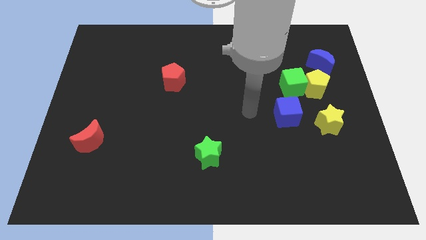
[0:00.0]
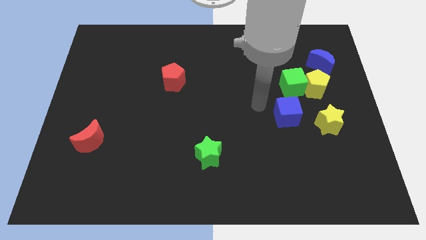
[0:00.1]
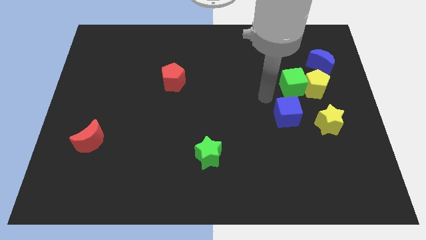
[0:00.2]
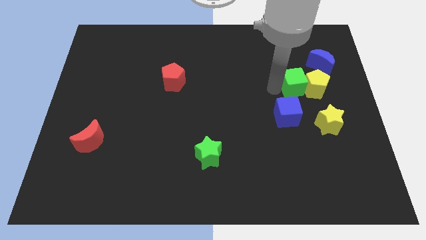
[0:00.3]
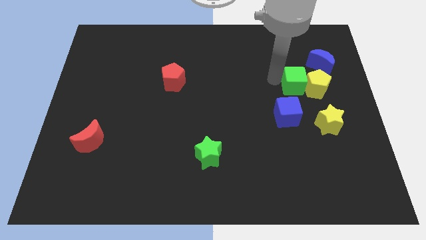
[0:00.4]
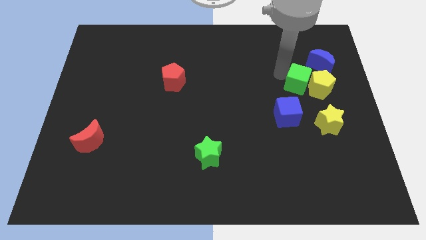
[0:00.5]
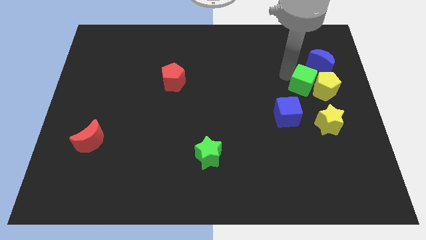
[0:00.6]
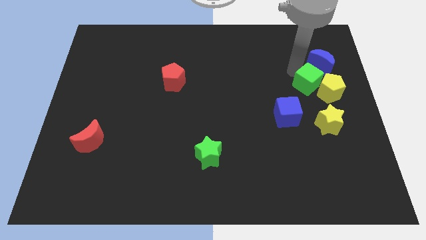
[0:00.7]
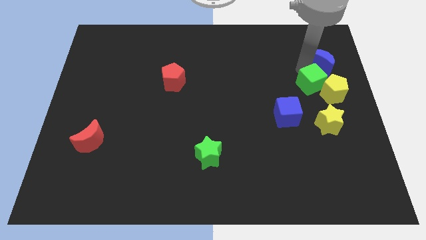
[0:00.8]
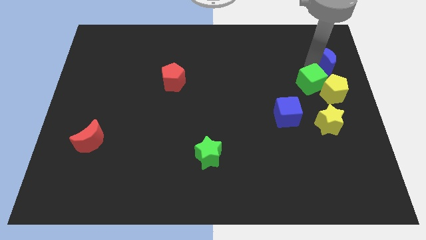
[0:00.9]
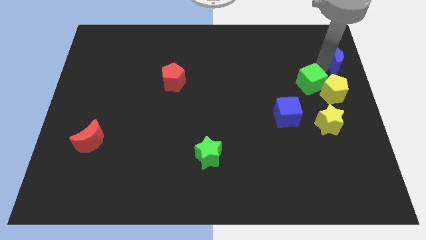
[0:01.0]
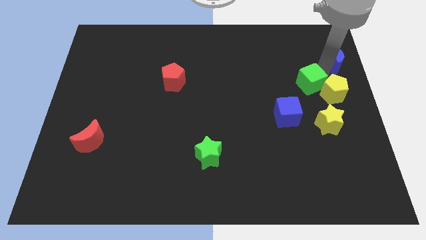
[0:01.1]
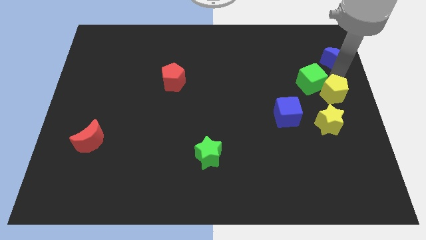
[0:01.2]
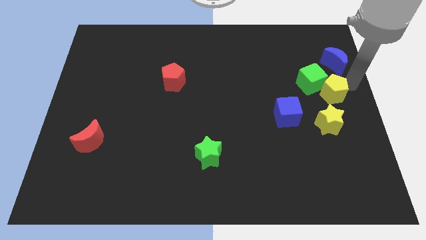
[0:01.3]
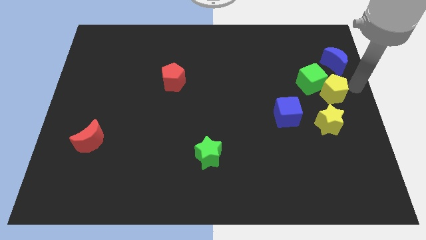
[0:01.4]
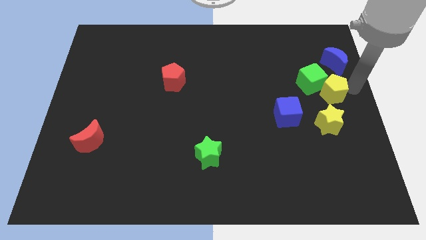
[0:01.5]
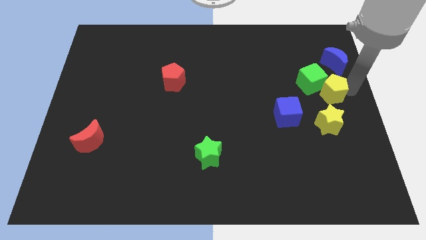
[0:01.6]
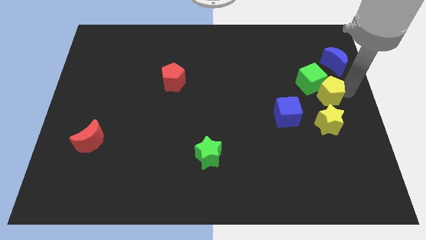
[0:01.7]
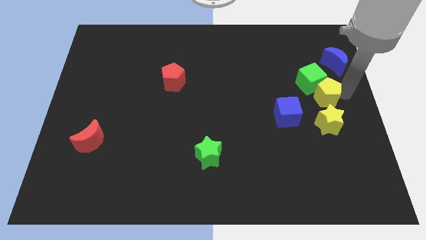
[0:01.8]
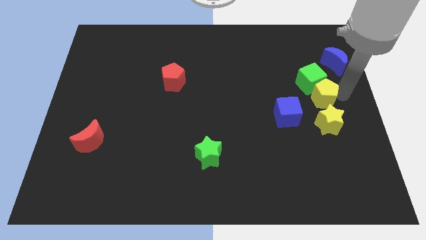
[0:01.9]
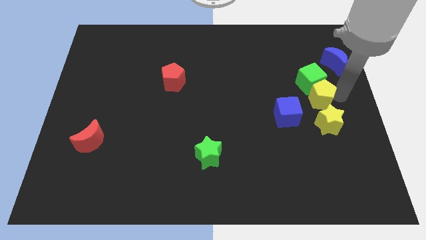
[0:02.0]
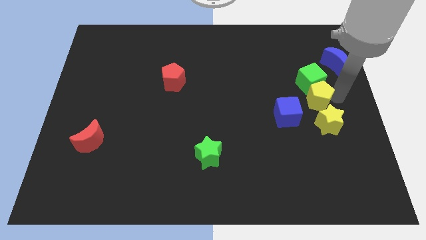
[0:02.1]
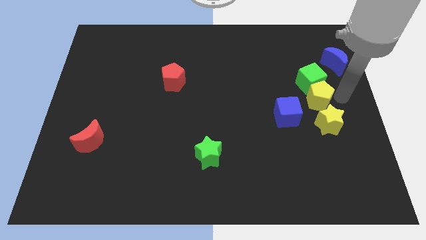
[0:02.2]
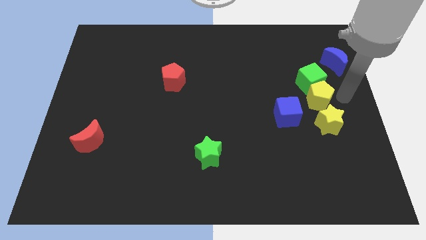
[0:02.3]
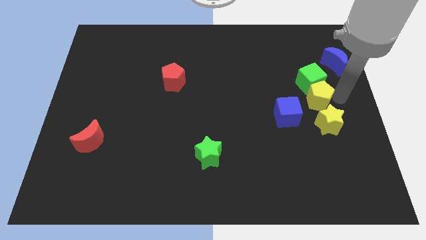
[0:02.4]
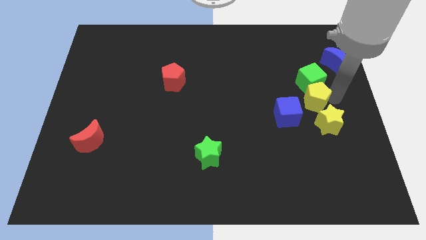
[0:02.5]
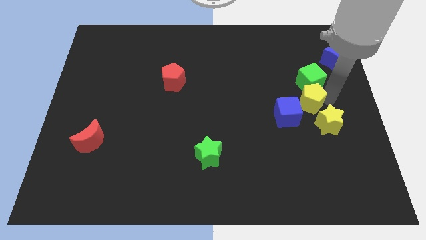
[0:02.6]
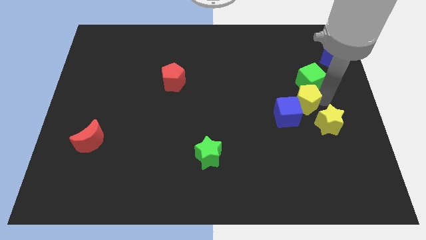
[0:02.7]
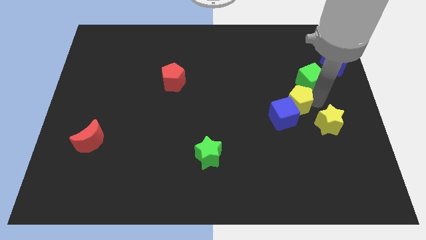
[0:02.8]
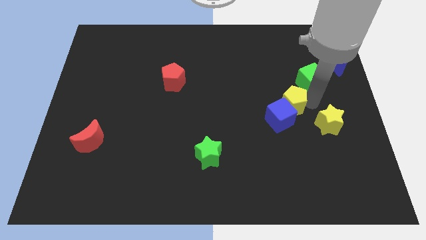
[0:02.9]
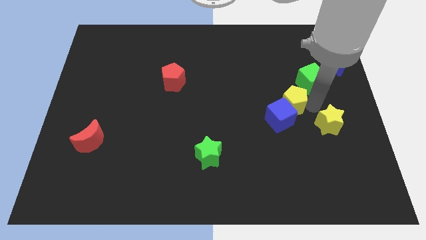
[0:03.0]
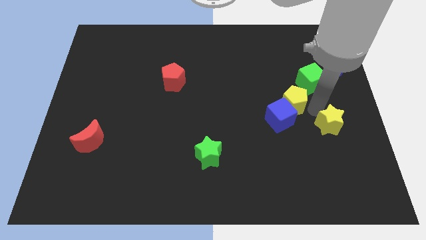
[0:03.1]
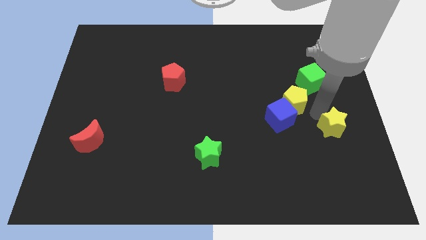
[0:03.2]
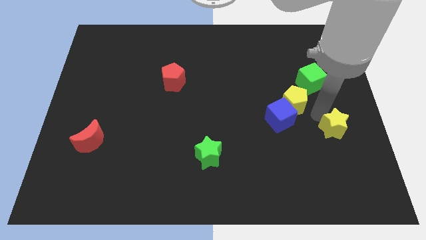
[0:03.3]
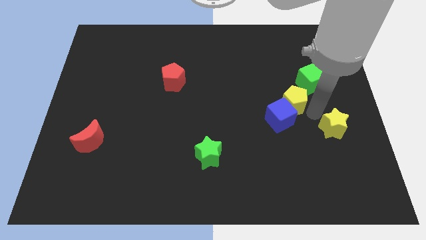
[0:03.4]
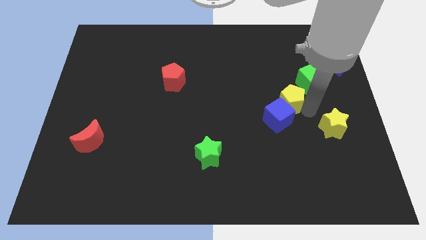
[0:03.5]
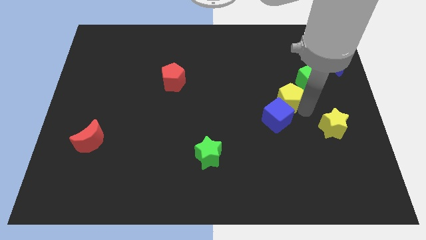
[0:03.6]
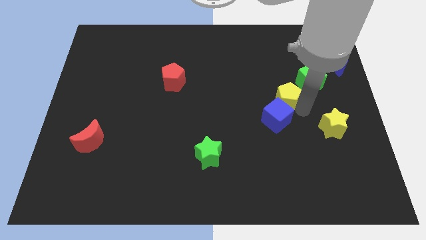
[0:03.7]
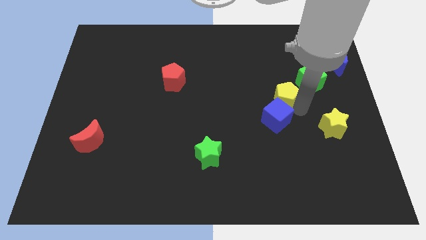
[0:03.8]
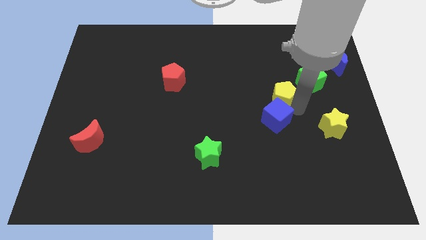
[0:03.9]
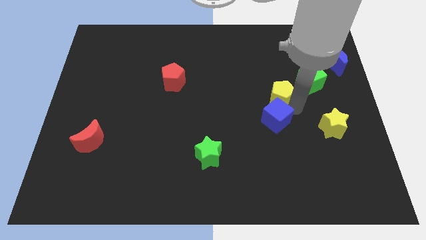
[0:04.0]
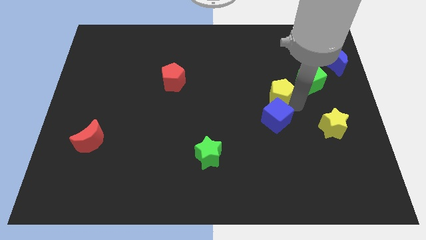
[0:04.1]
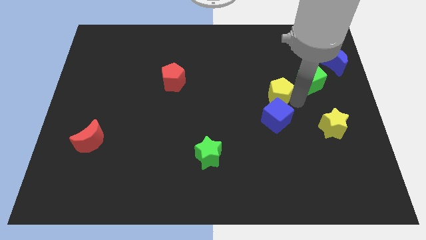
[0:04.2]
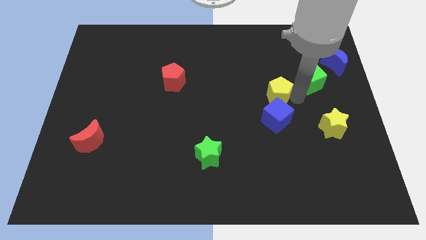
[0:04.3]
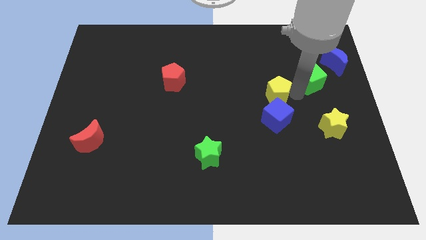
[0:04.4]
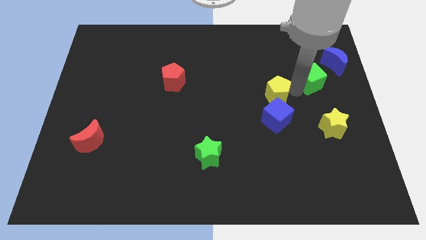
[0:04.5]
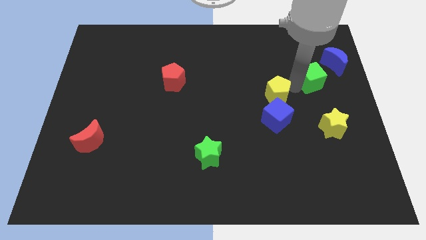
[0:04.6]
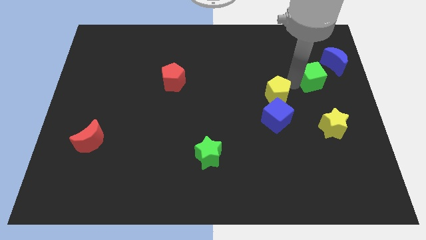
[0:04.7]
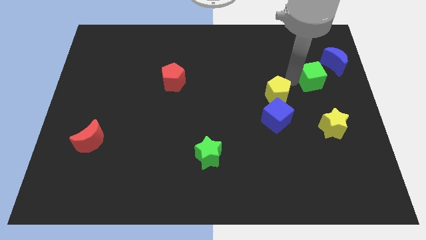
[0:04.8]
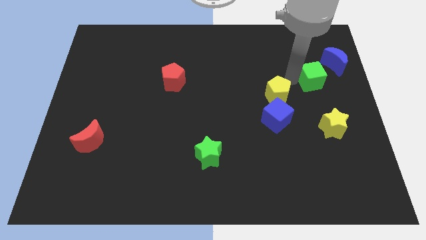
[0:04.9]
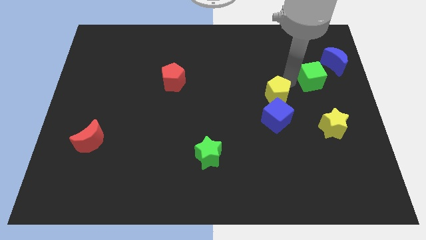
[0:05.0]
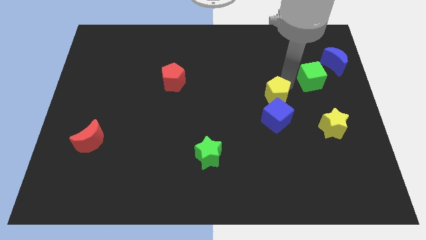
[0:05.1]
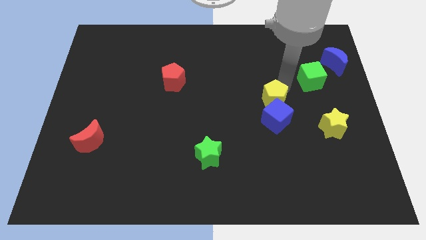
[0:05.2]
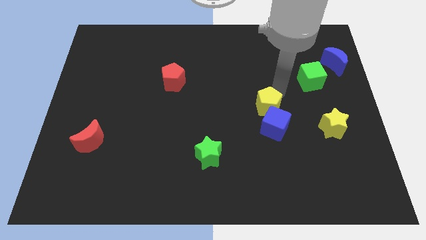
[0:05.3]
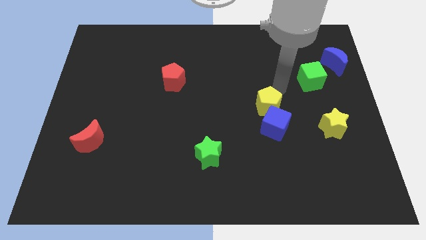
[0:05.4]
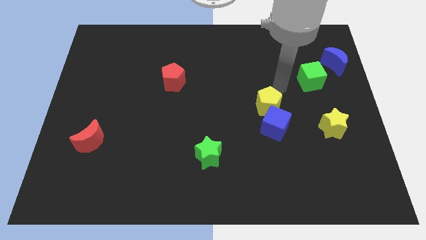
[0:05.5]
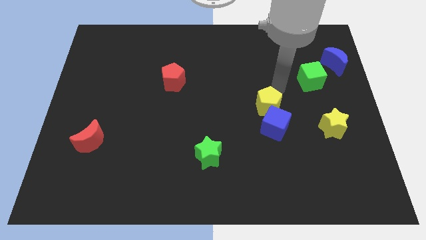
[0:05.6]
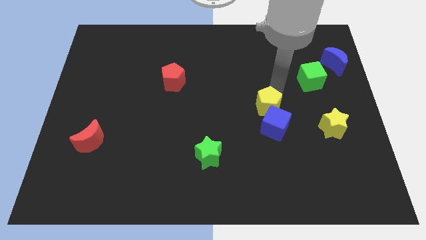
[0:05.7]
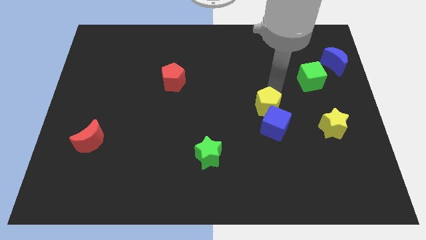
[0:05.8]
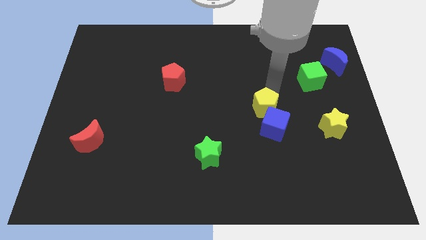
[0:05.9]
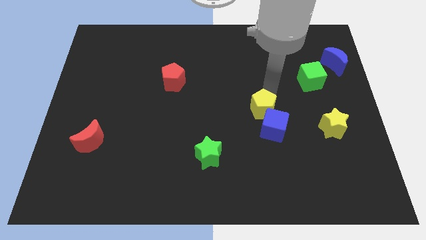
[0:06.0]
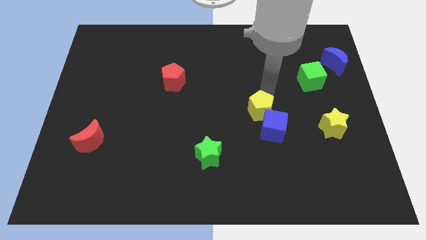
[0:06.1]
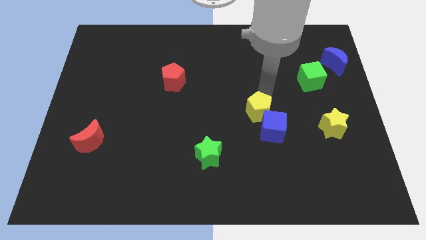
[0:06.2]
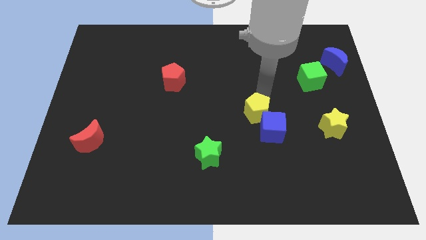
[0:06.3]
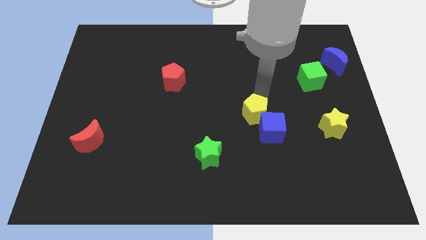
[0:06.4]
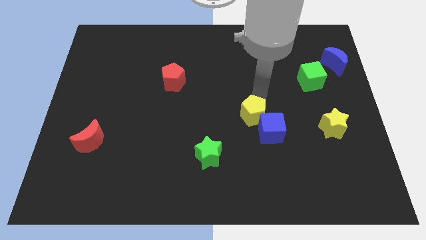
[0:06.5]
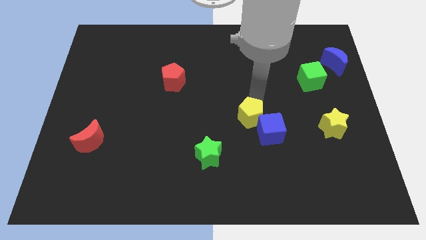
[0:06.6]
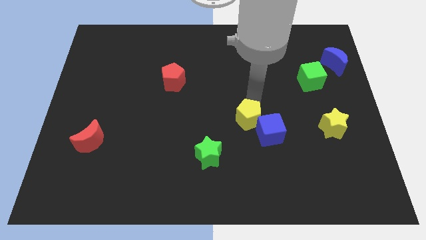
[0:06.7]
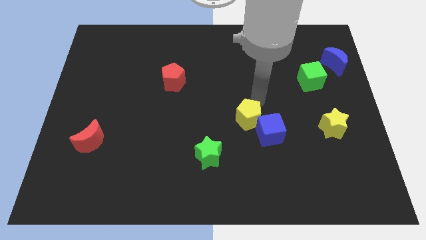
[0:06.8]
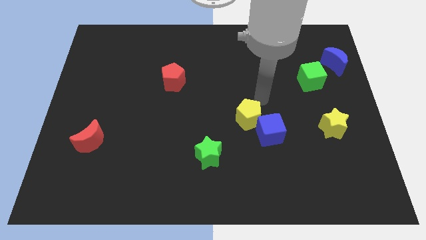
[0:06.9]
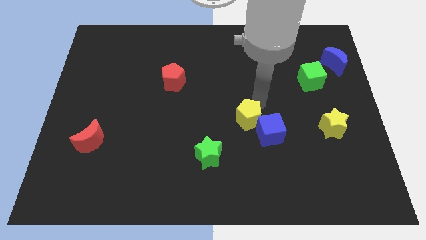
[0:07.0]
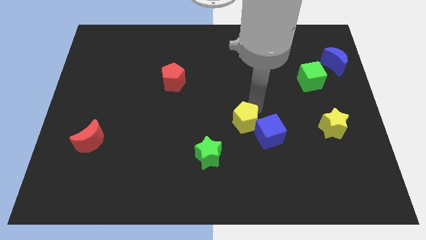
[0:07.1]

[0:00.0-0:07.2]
move the yellow pentagon diagonally up and to the right of the green star
